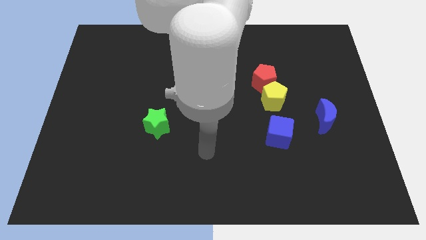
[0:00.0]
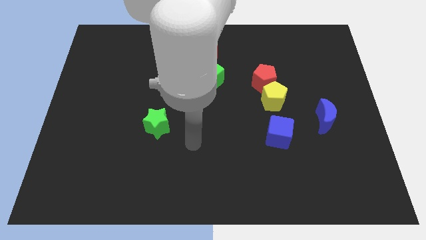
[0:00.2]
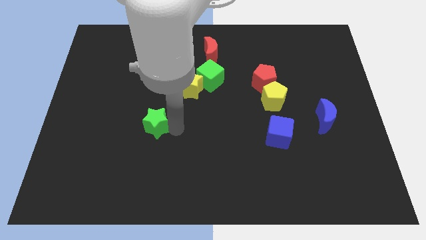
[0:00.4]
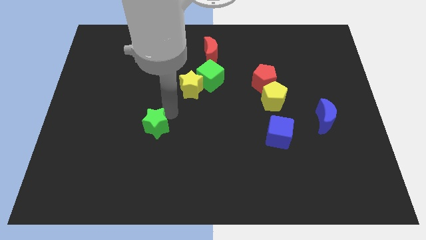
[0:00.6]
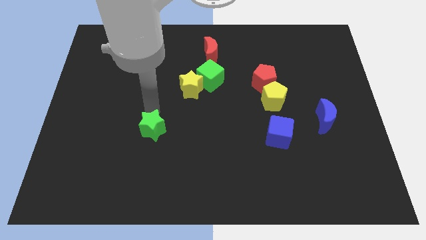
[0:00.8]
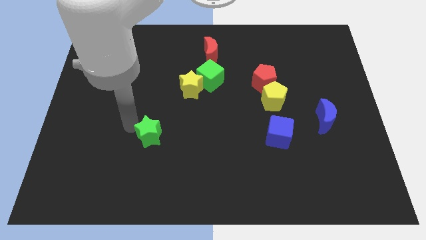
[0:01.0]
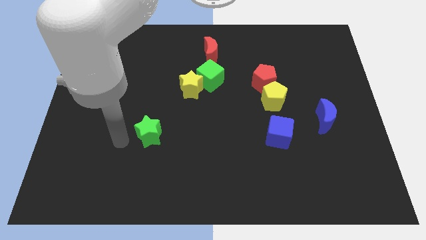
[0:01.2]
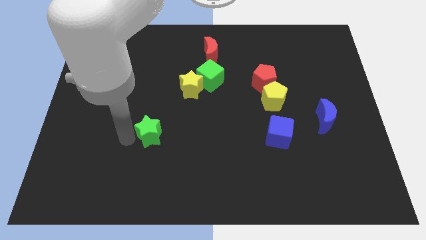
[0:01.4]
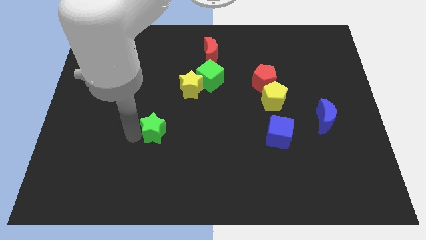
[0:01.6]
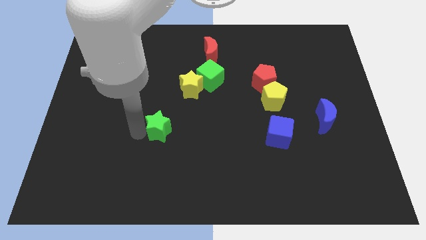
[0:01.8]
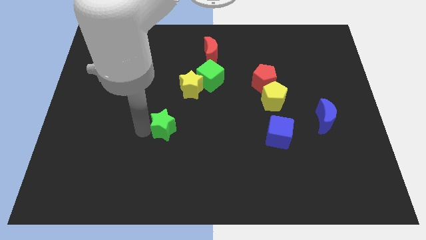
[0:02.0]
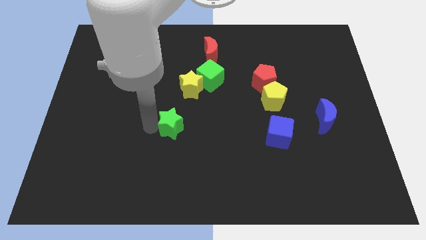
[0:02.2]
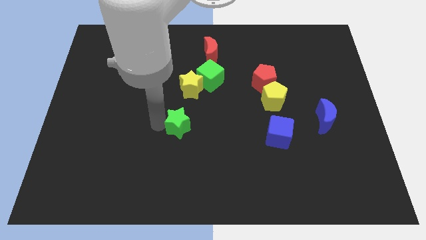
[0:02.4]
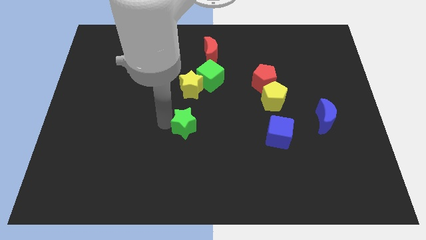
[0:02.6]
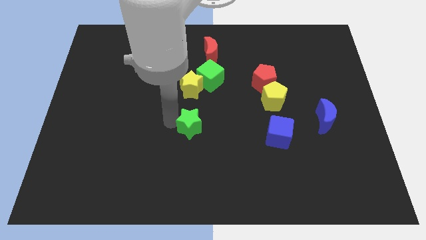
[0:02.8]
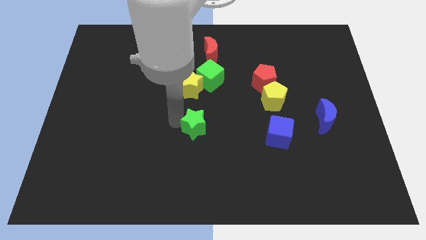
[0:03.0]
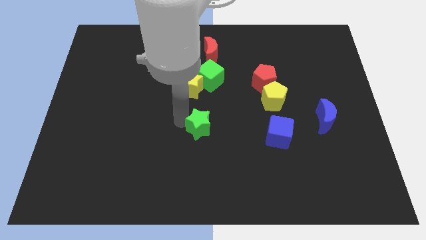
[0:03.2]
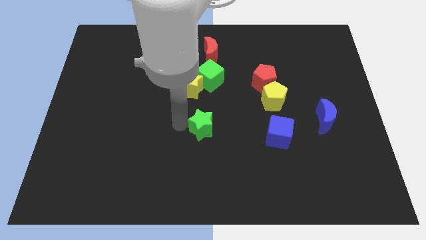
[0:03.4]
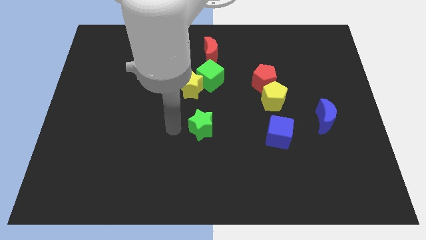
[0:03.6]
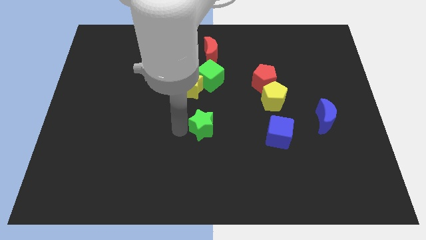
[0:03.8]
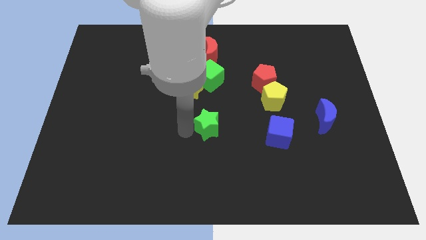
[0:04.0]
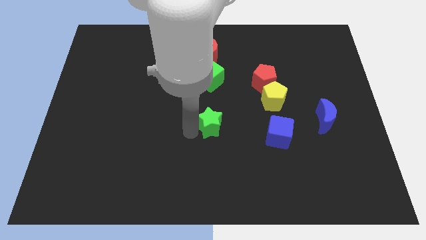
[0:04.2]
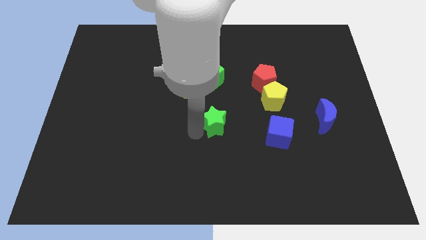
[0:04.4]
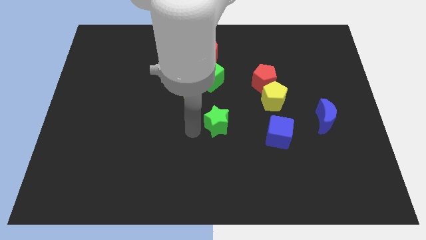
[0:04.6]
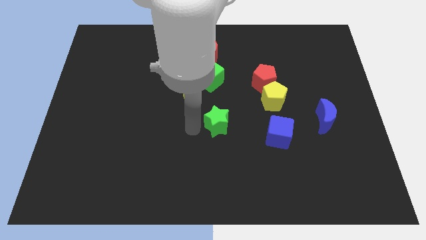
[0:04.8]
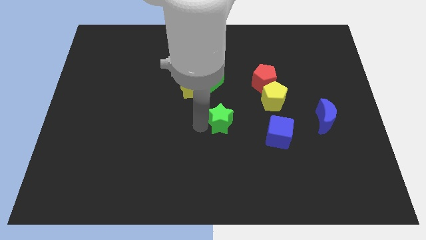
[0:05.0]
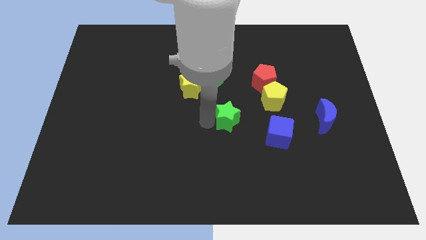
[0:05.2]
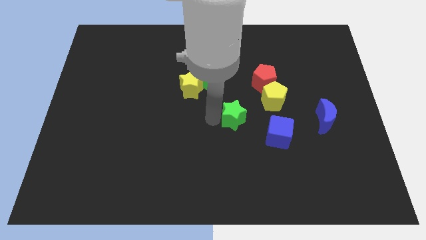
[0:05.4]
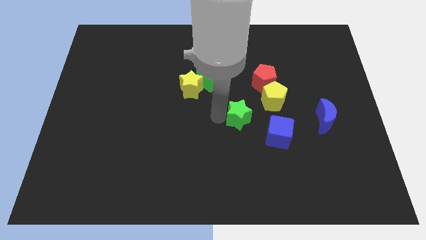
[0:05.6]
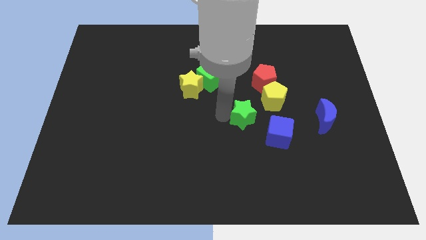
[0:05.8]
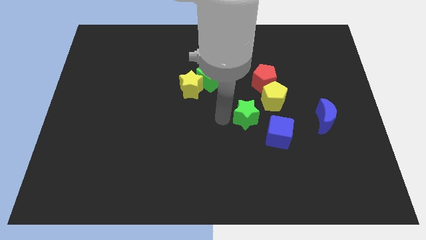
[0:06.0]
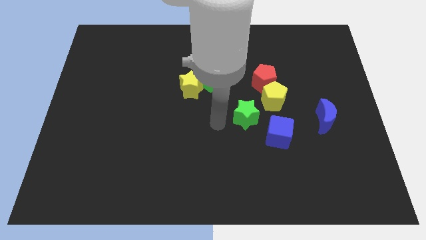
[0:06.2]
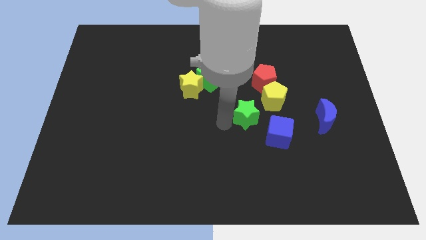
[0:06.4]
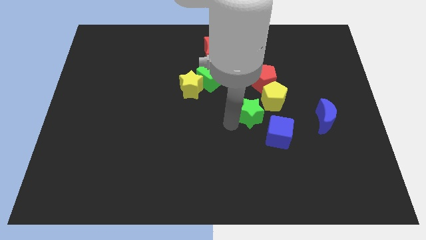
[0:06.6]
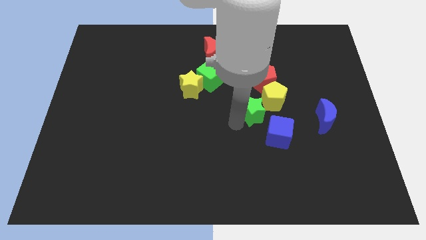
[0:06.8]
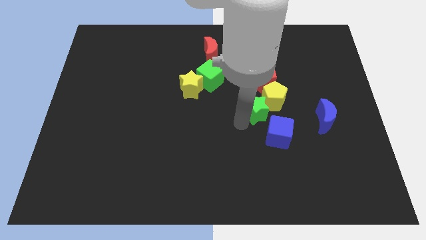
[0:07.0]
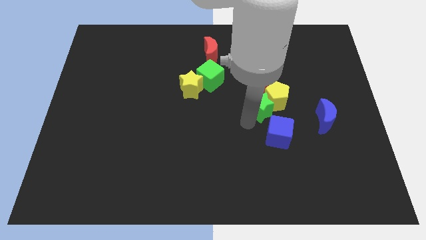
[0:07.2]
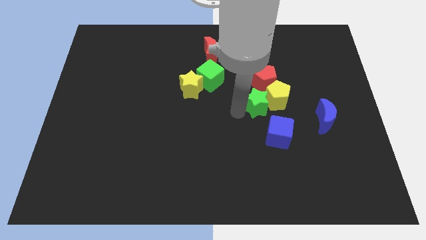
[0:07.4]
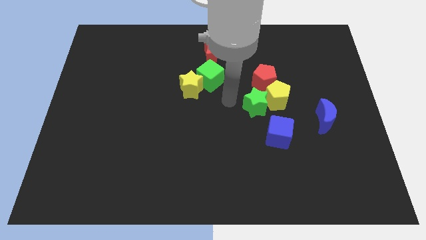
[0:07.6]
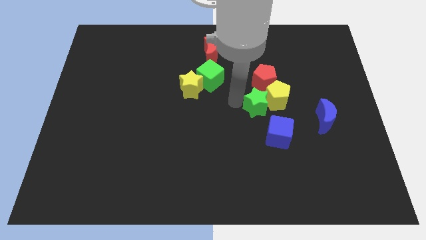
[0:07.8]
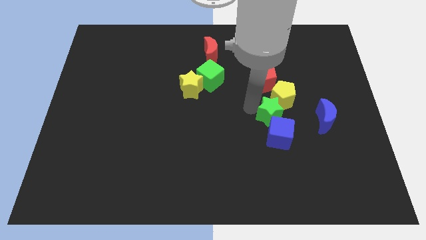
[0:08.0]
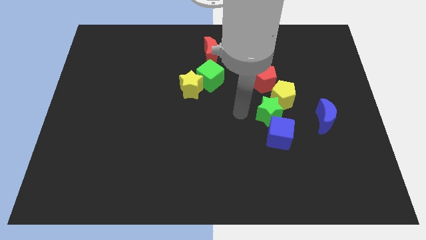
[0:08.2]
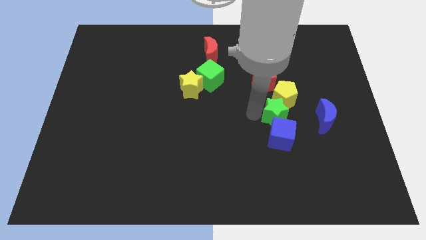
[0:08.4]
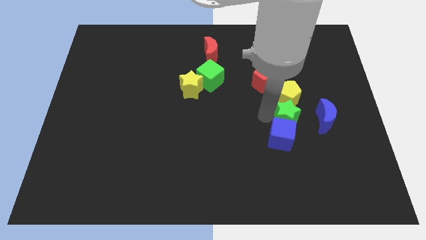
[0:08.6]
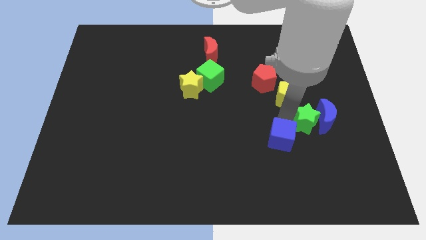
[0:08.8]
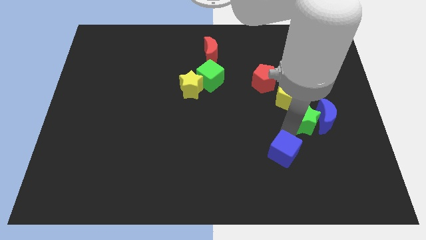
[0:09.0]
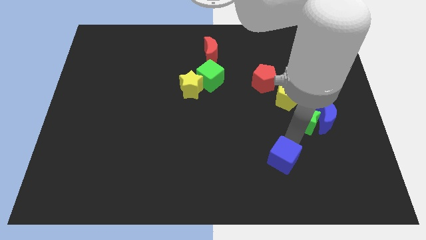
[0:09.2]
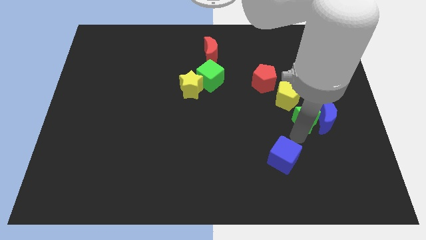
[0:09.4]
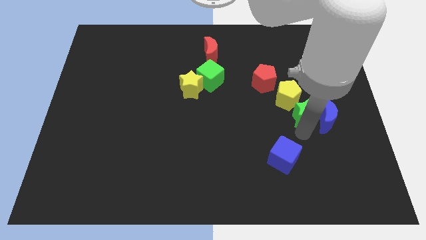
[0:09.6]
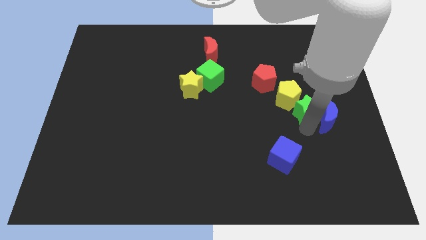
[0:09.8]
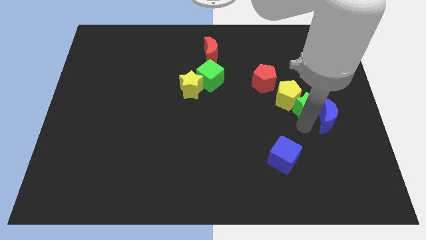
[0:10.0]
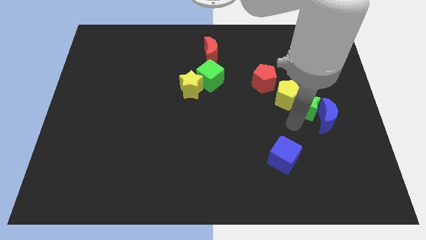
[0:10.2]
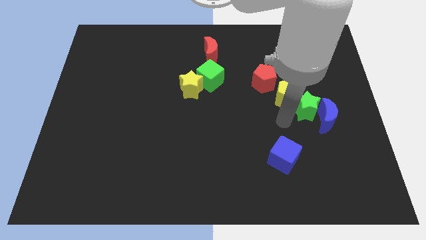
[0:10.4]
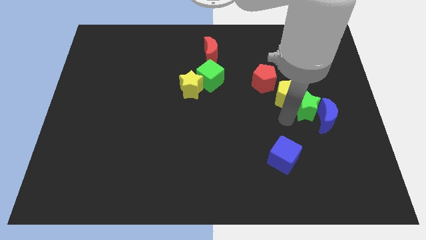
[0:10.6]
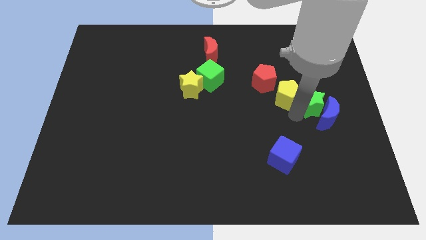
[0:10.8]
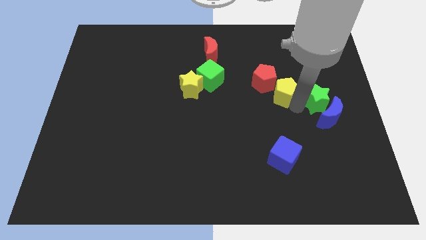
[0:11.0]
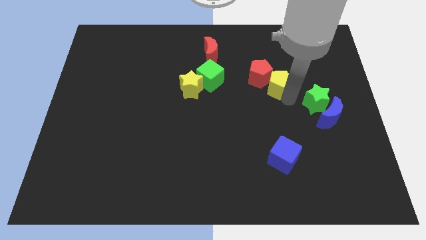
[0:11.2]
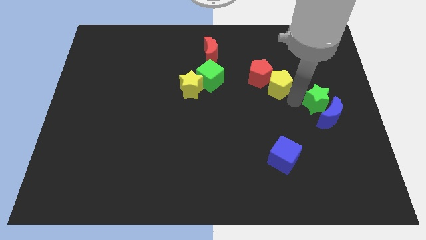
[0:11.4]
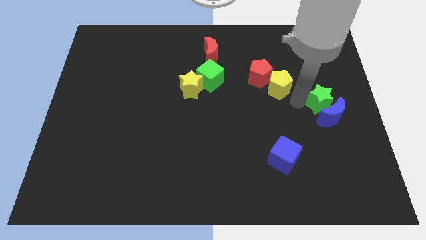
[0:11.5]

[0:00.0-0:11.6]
push the green star to the center right
